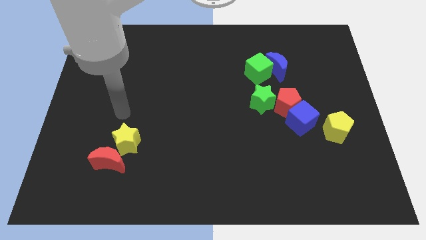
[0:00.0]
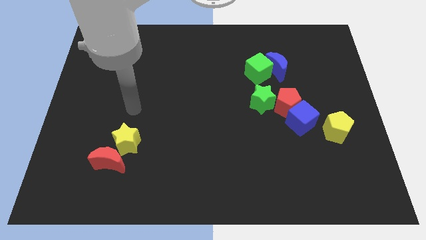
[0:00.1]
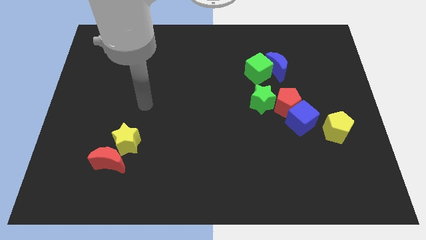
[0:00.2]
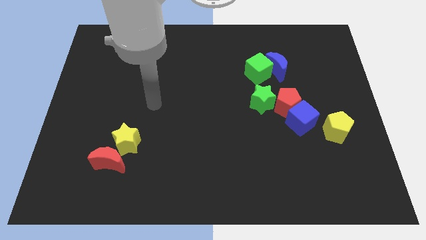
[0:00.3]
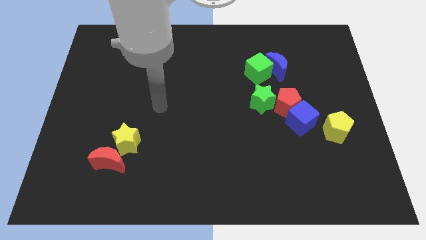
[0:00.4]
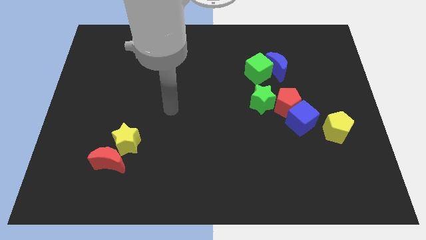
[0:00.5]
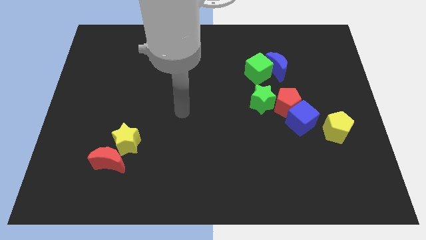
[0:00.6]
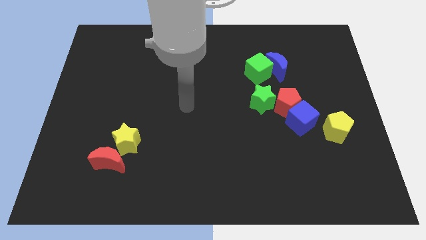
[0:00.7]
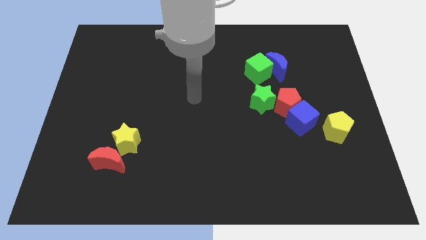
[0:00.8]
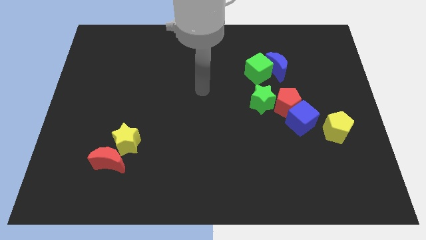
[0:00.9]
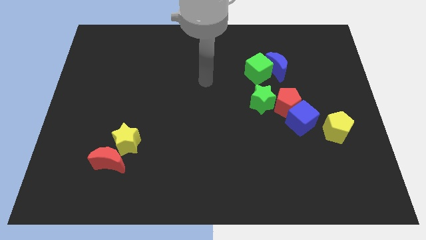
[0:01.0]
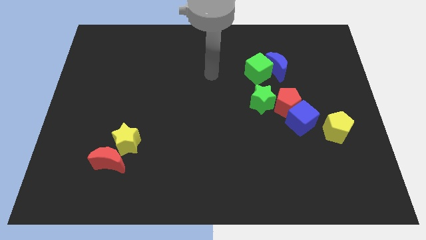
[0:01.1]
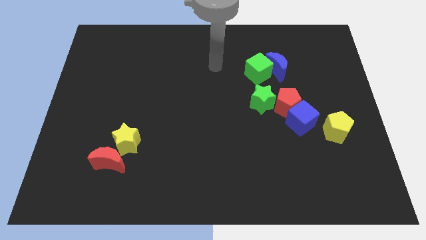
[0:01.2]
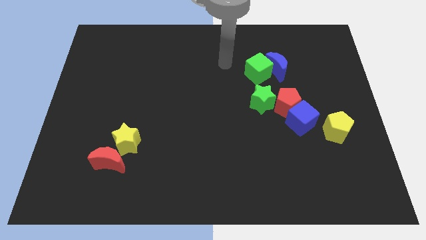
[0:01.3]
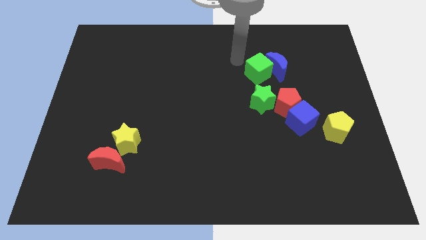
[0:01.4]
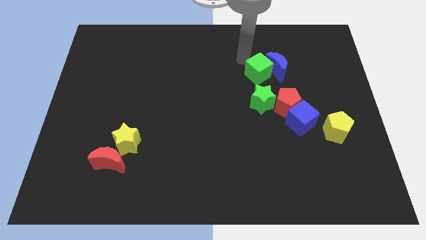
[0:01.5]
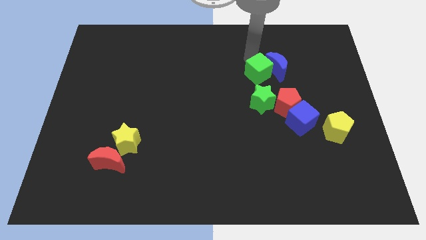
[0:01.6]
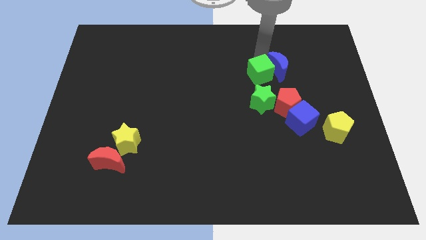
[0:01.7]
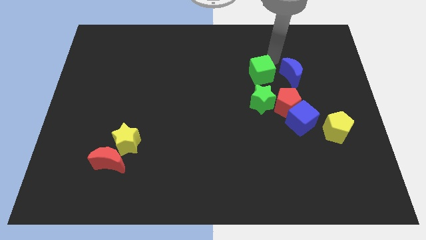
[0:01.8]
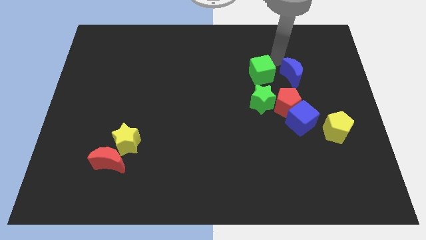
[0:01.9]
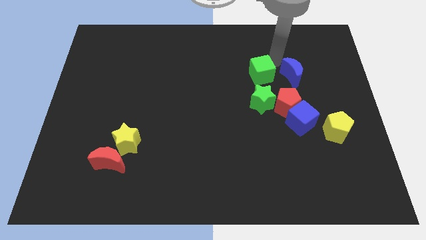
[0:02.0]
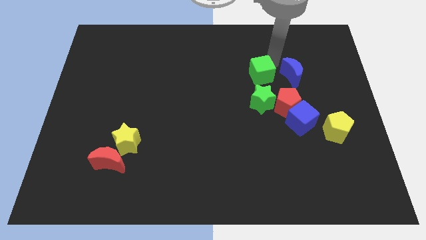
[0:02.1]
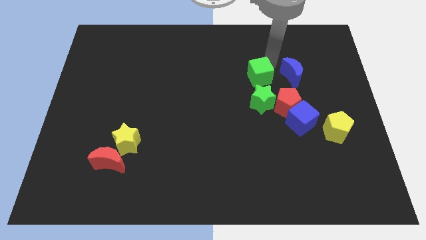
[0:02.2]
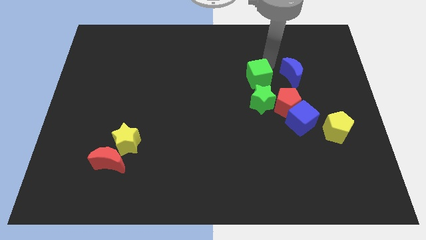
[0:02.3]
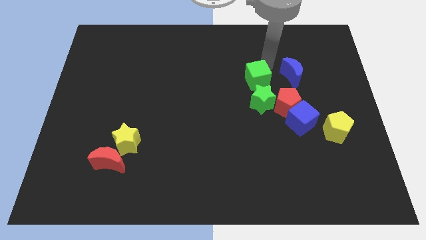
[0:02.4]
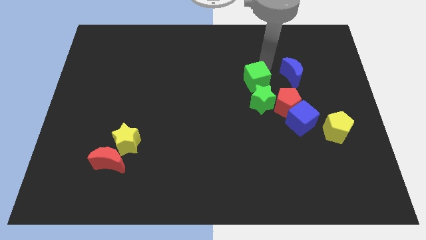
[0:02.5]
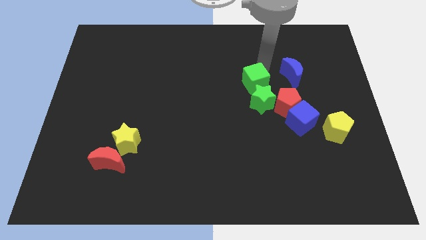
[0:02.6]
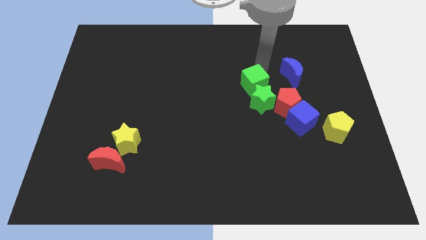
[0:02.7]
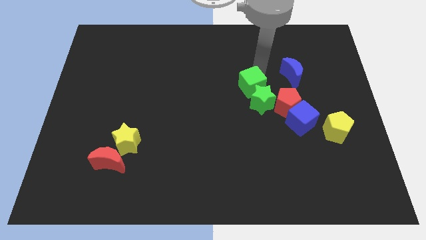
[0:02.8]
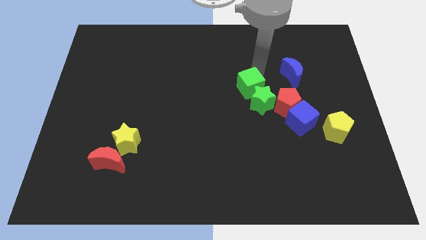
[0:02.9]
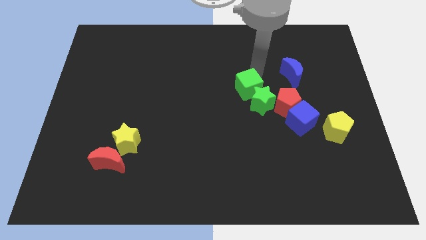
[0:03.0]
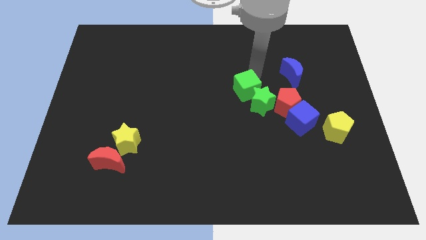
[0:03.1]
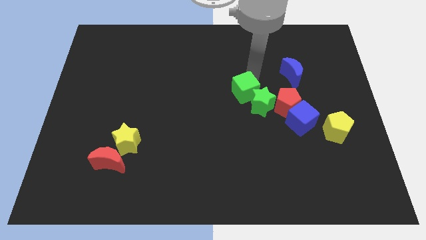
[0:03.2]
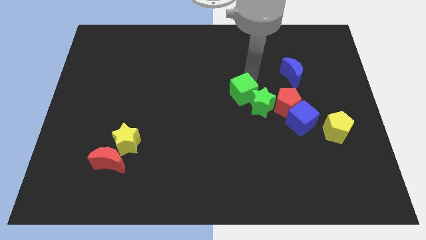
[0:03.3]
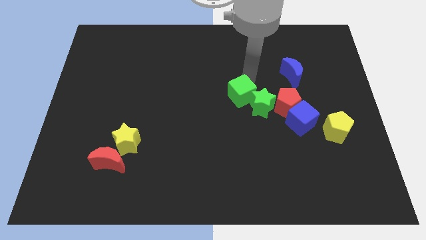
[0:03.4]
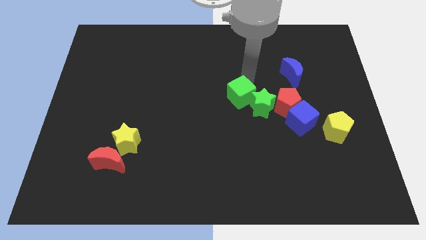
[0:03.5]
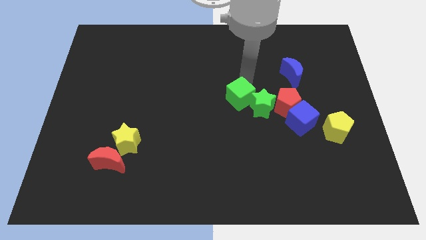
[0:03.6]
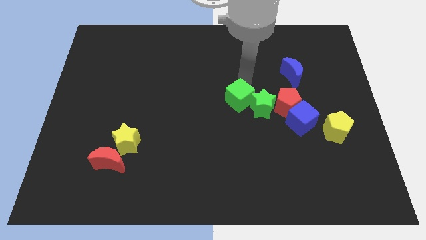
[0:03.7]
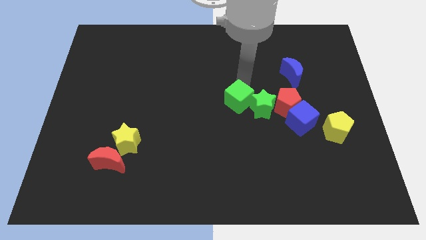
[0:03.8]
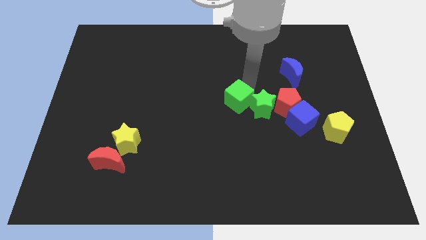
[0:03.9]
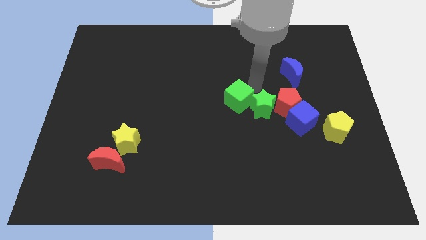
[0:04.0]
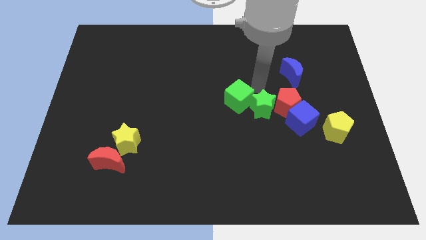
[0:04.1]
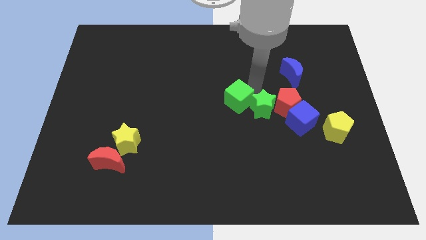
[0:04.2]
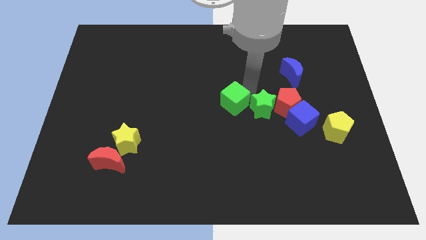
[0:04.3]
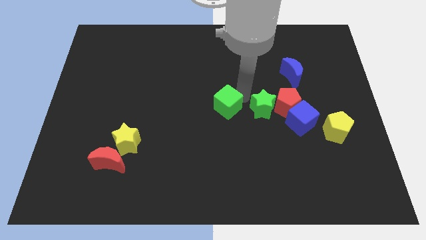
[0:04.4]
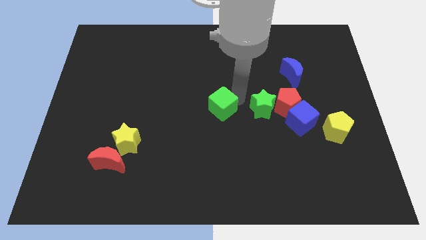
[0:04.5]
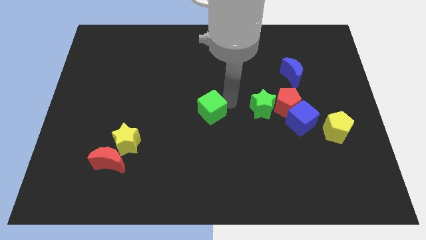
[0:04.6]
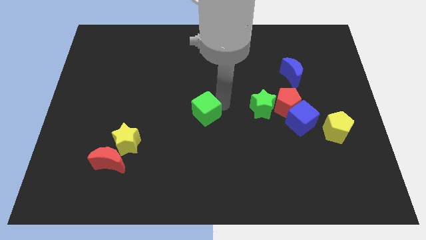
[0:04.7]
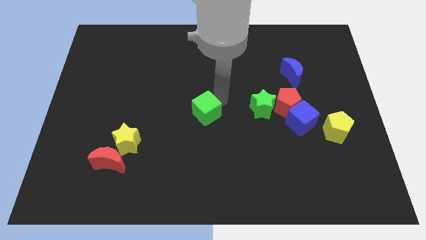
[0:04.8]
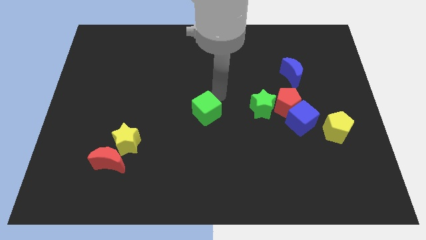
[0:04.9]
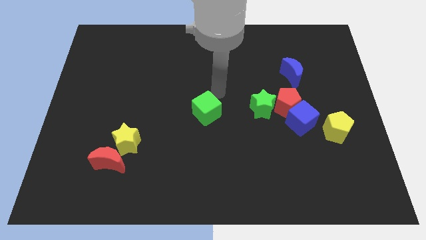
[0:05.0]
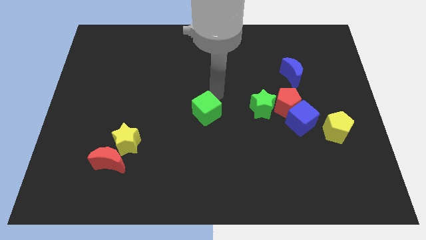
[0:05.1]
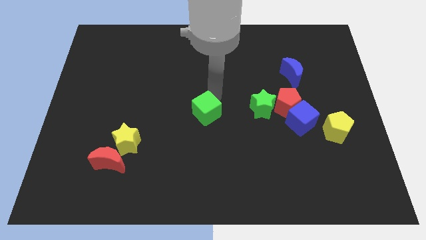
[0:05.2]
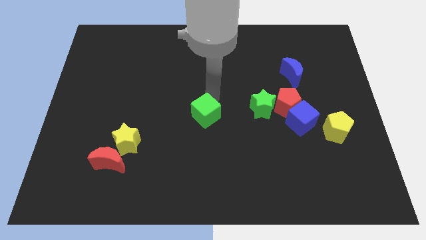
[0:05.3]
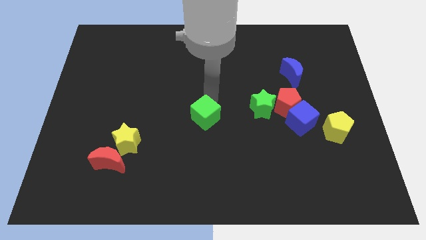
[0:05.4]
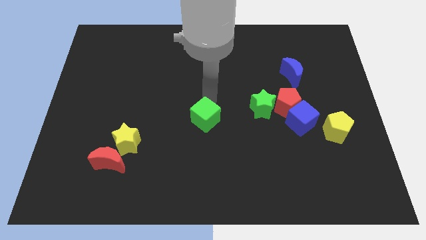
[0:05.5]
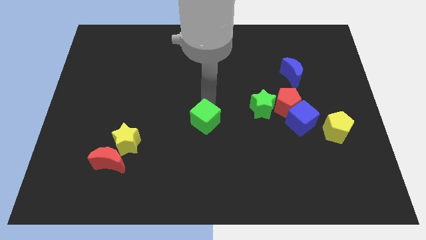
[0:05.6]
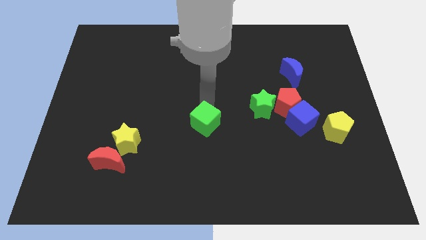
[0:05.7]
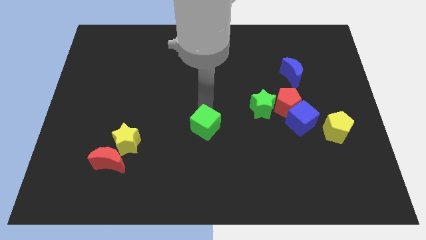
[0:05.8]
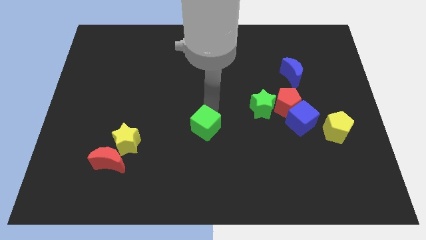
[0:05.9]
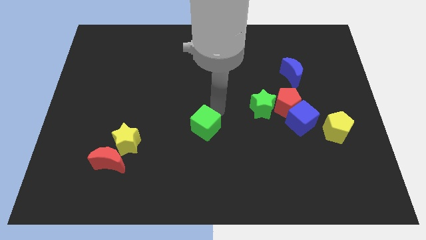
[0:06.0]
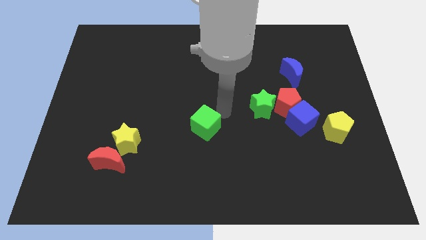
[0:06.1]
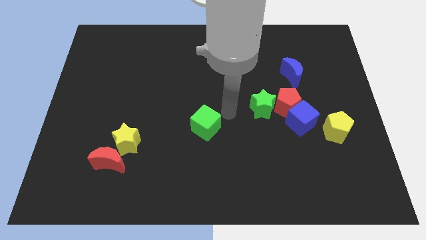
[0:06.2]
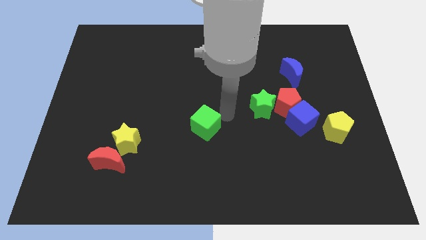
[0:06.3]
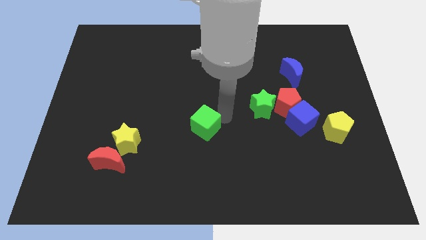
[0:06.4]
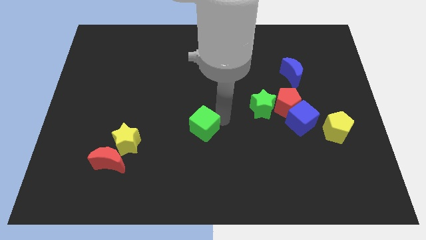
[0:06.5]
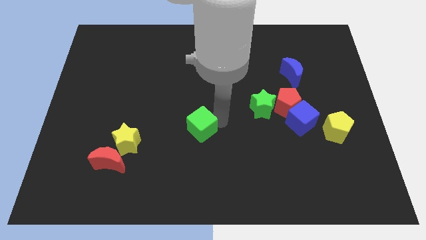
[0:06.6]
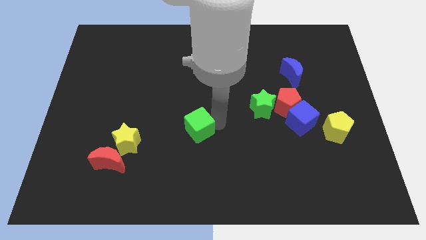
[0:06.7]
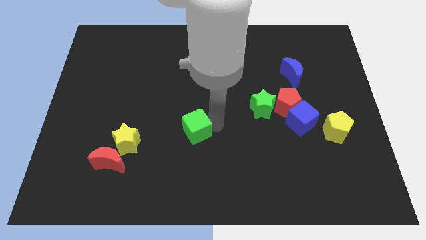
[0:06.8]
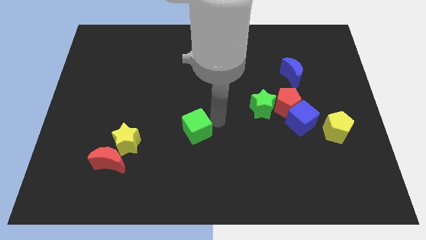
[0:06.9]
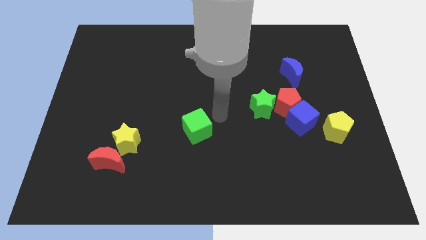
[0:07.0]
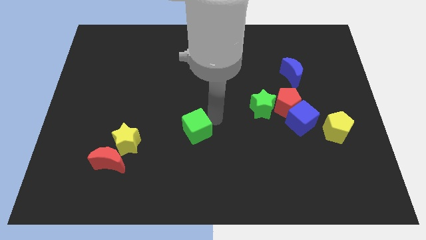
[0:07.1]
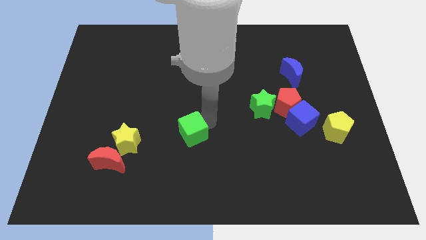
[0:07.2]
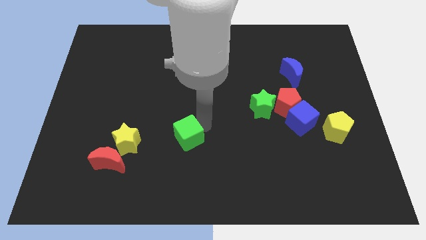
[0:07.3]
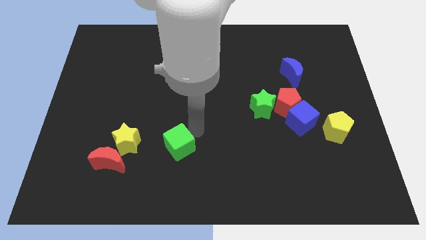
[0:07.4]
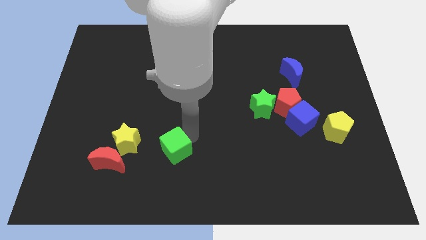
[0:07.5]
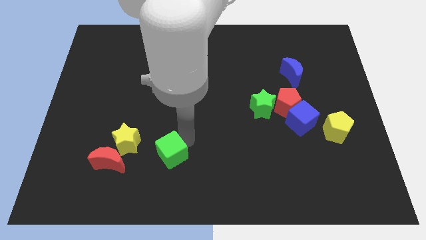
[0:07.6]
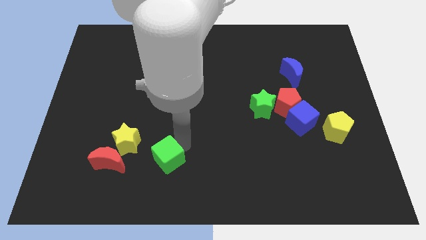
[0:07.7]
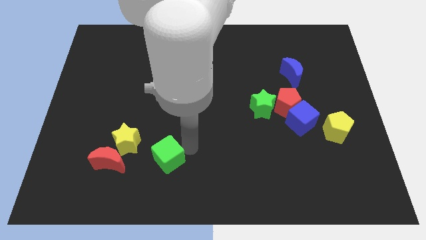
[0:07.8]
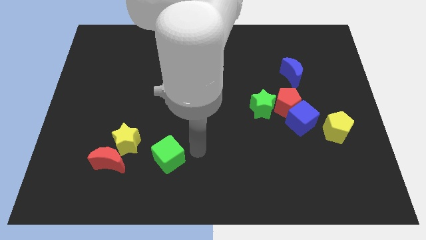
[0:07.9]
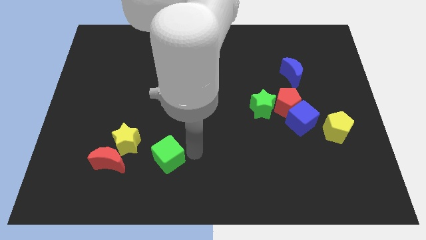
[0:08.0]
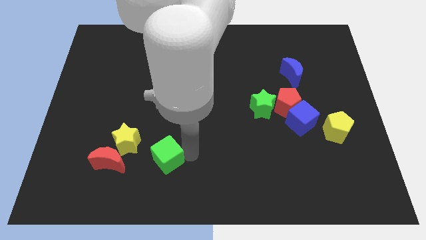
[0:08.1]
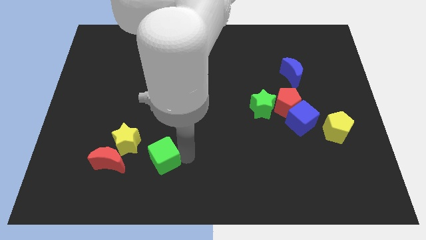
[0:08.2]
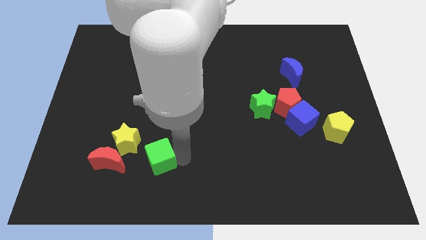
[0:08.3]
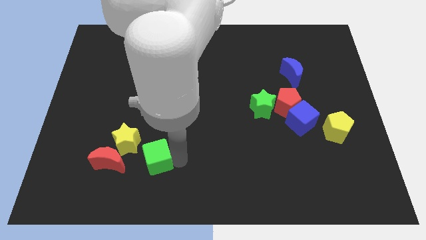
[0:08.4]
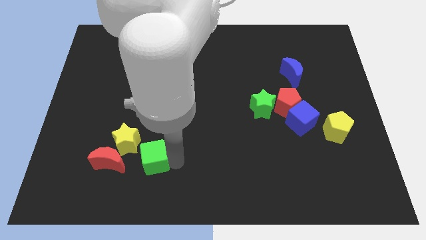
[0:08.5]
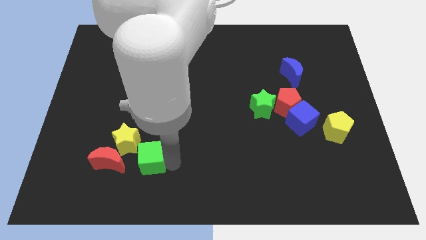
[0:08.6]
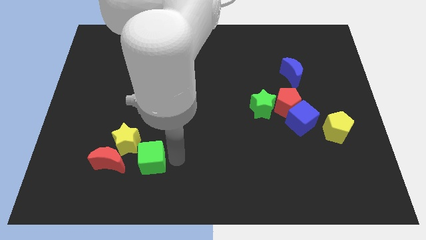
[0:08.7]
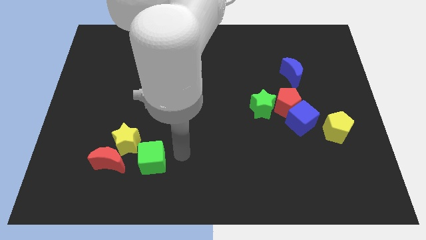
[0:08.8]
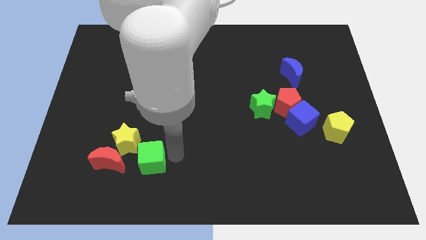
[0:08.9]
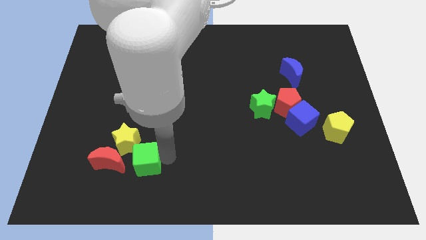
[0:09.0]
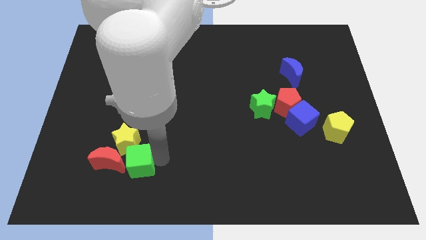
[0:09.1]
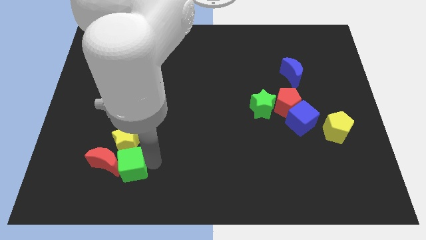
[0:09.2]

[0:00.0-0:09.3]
move the green cube towards the red moon
